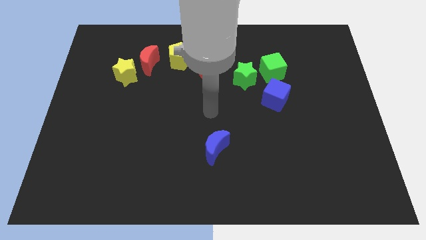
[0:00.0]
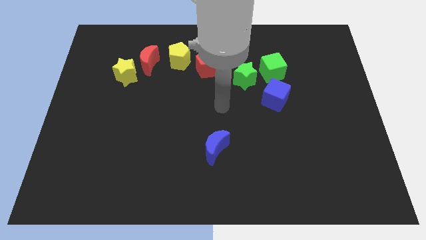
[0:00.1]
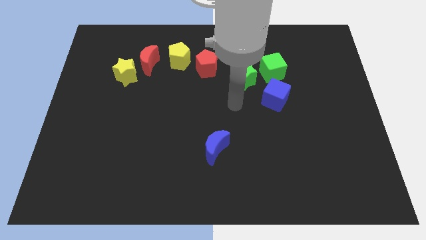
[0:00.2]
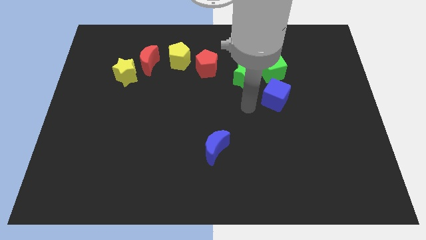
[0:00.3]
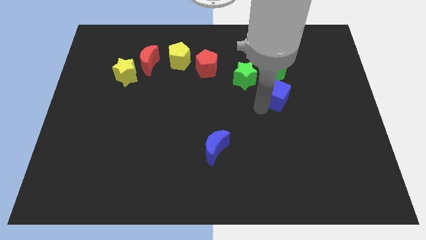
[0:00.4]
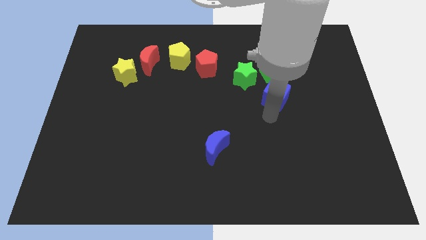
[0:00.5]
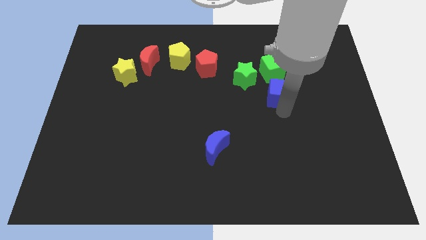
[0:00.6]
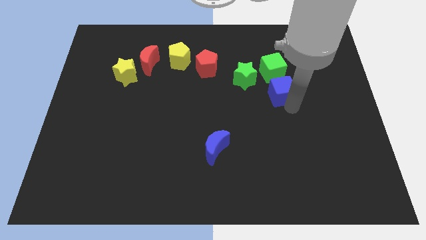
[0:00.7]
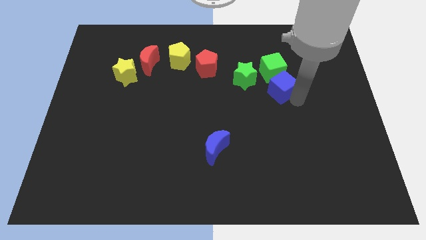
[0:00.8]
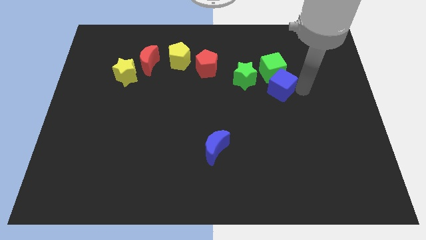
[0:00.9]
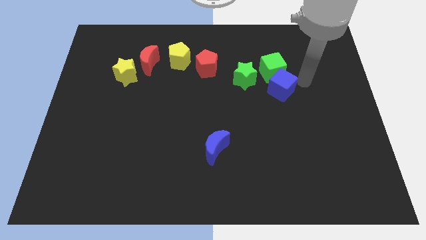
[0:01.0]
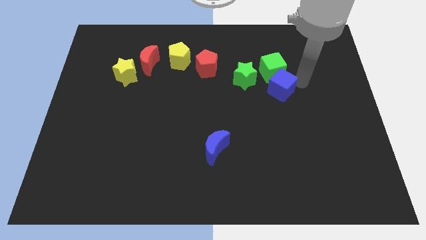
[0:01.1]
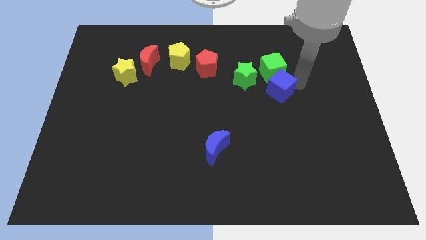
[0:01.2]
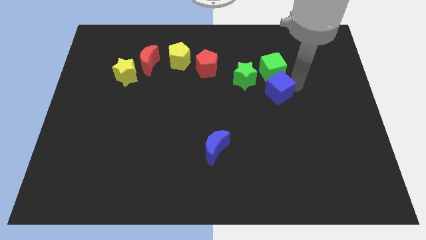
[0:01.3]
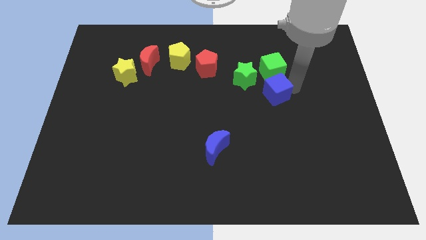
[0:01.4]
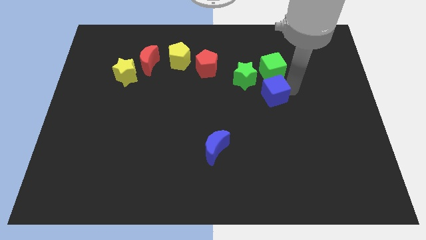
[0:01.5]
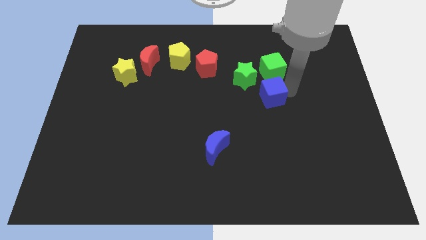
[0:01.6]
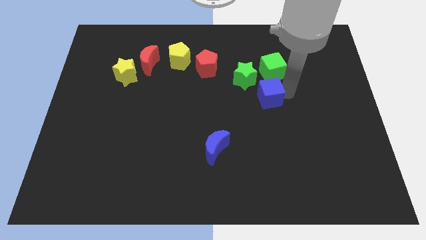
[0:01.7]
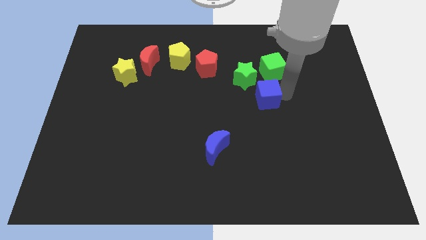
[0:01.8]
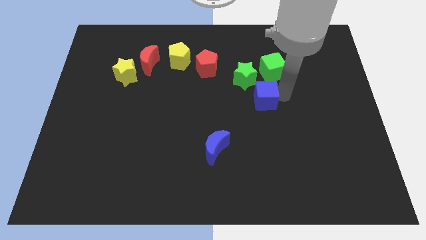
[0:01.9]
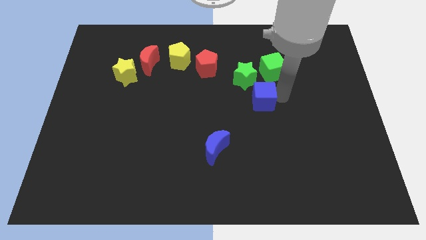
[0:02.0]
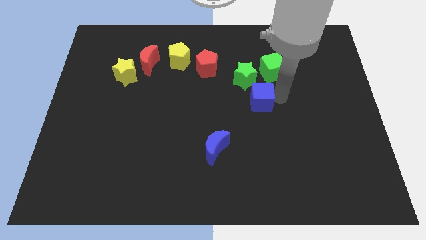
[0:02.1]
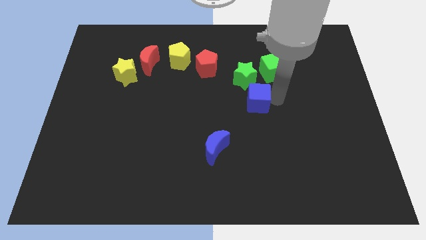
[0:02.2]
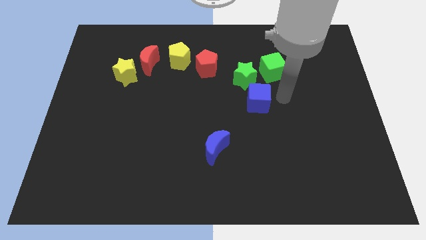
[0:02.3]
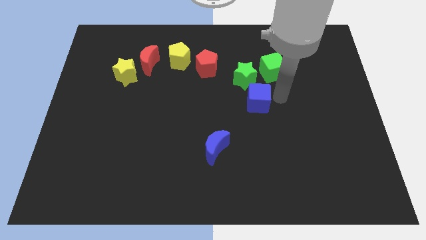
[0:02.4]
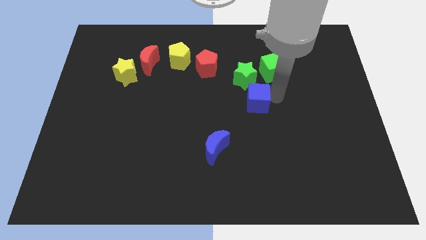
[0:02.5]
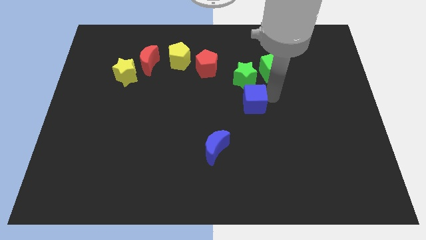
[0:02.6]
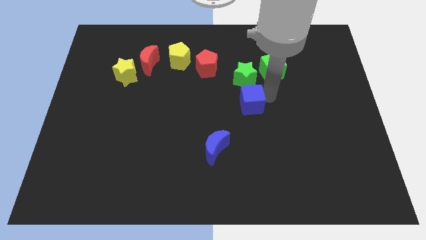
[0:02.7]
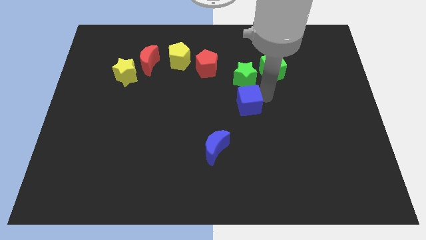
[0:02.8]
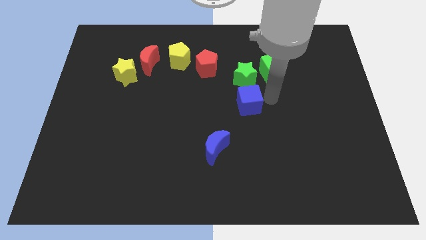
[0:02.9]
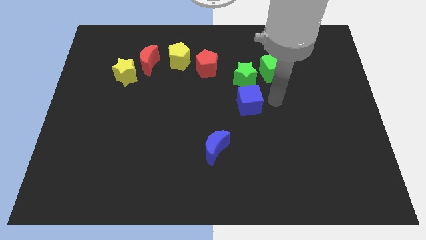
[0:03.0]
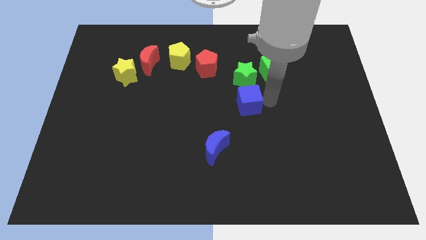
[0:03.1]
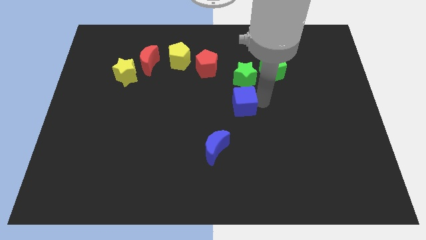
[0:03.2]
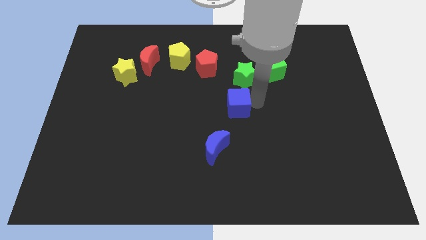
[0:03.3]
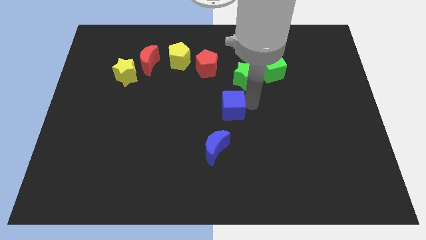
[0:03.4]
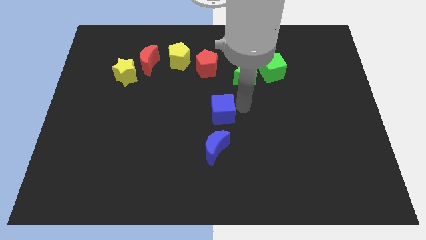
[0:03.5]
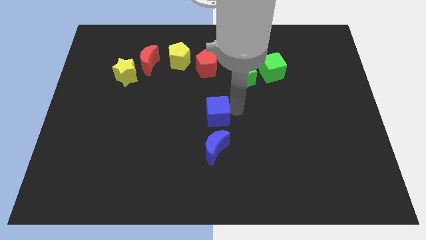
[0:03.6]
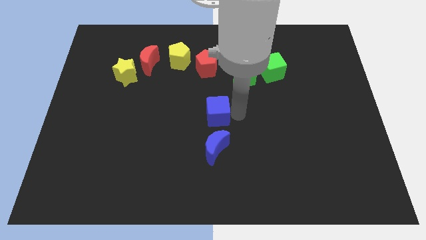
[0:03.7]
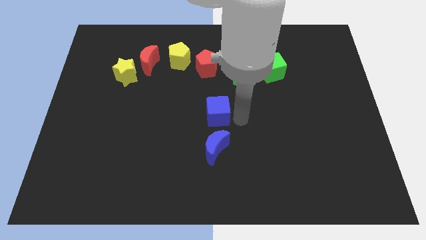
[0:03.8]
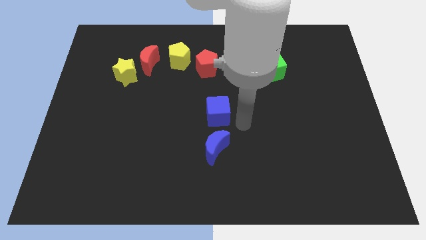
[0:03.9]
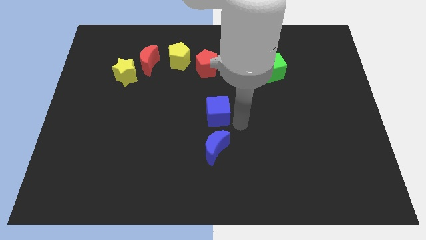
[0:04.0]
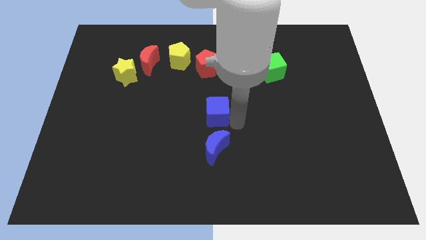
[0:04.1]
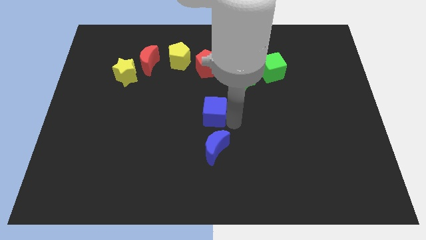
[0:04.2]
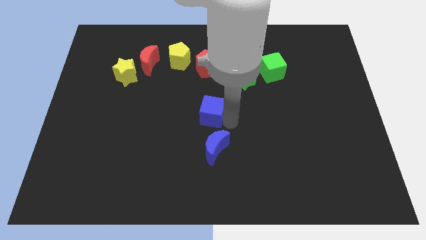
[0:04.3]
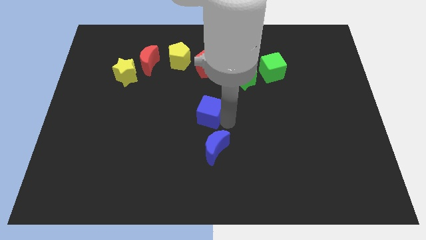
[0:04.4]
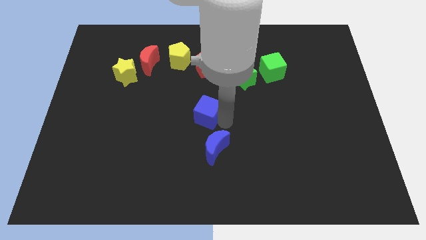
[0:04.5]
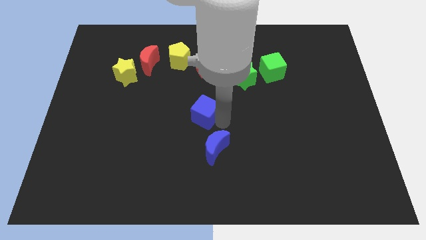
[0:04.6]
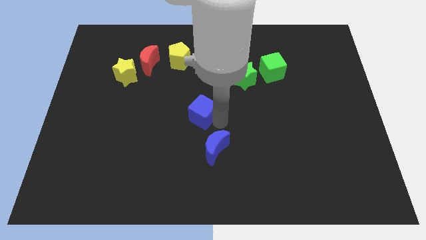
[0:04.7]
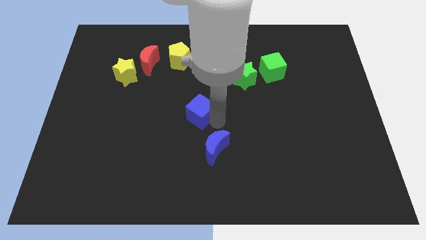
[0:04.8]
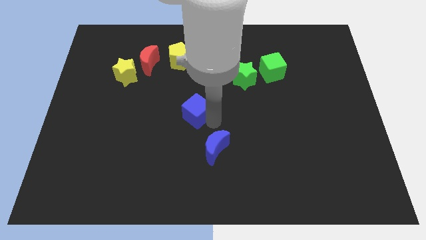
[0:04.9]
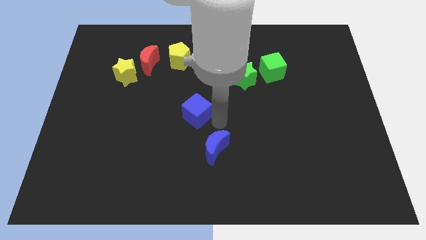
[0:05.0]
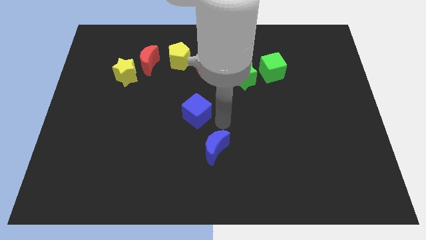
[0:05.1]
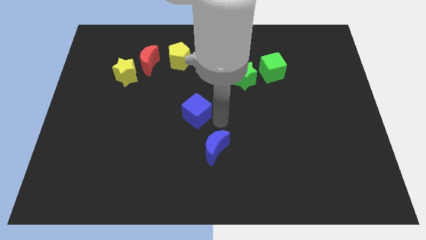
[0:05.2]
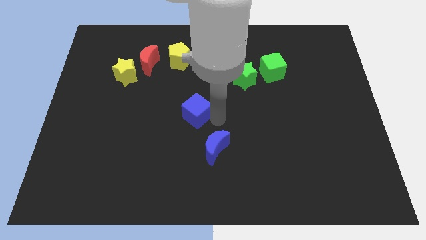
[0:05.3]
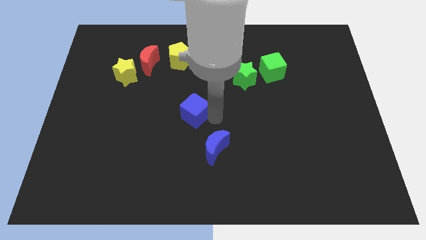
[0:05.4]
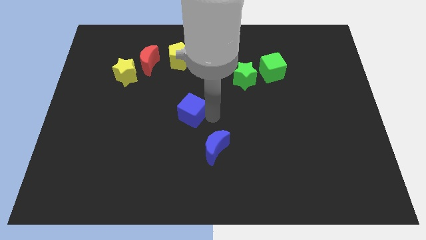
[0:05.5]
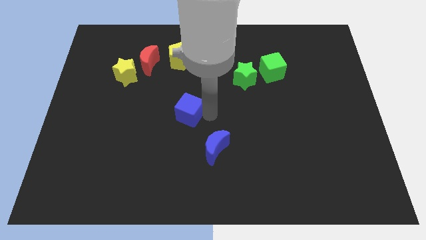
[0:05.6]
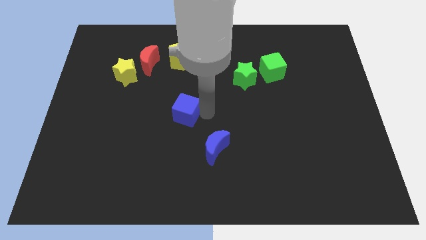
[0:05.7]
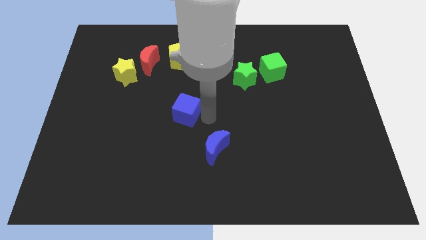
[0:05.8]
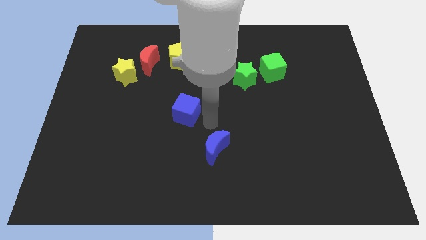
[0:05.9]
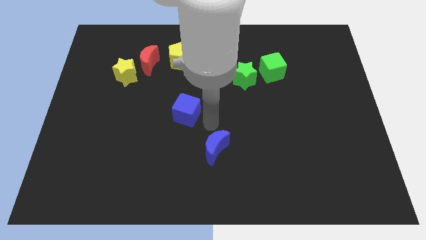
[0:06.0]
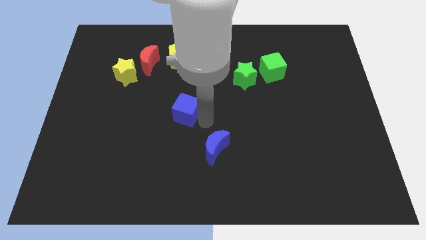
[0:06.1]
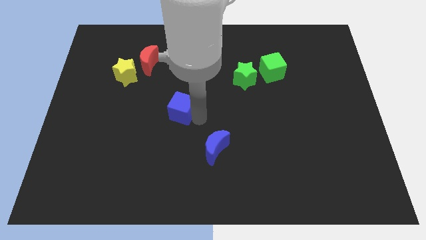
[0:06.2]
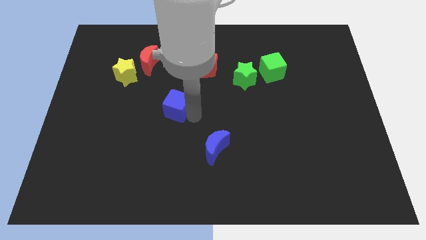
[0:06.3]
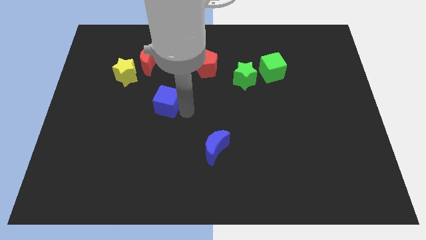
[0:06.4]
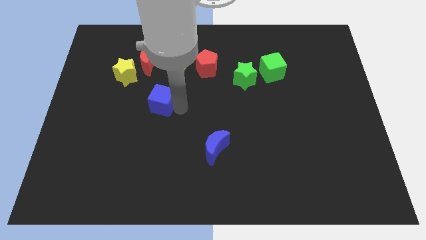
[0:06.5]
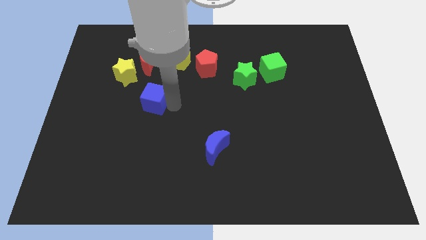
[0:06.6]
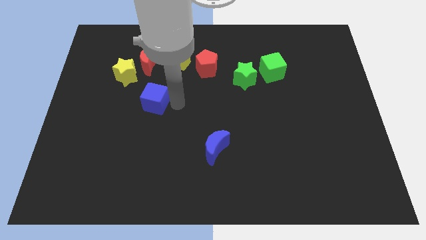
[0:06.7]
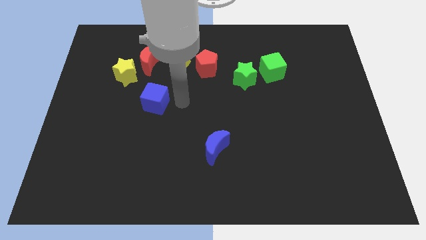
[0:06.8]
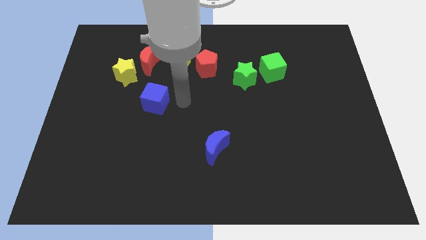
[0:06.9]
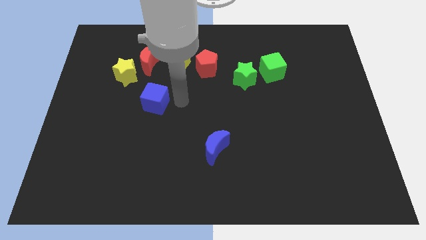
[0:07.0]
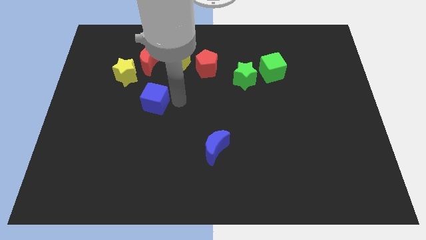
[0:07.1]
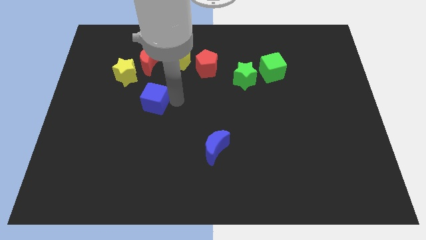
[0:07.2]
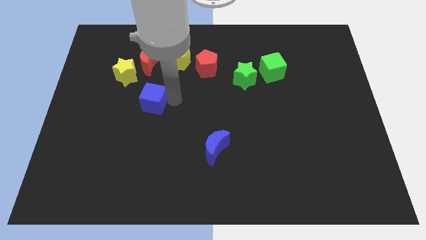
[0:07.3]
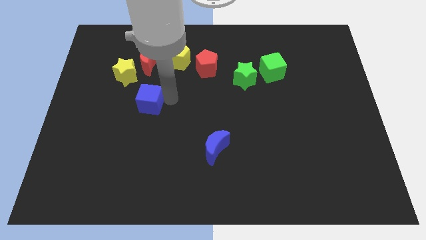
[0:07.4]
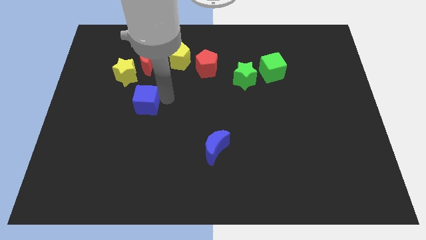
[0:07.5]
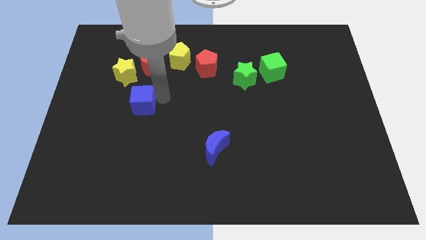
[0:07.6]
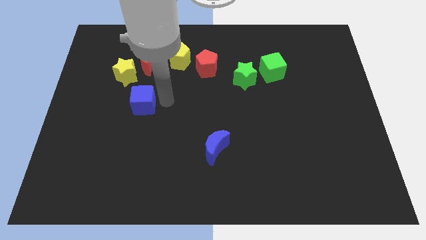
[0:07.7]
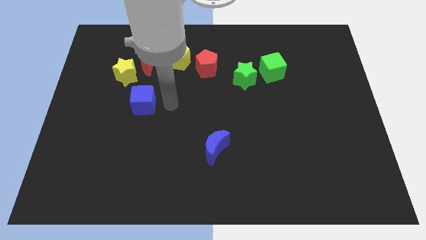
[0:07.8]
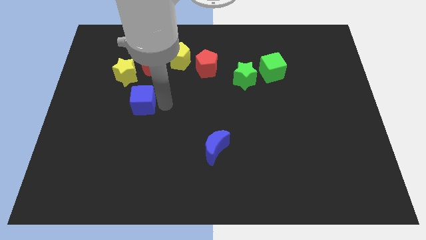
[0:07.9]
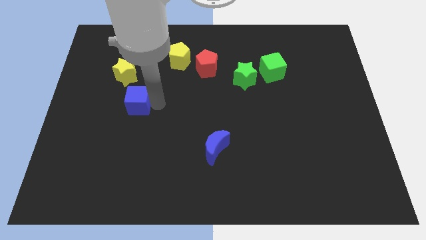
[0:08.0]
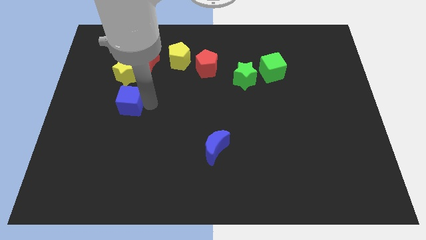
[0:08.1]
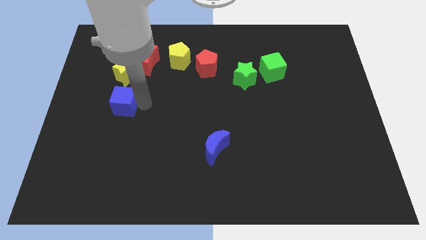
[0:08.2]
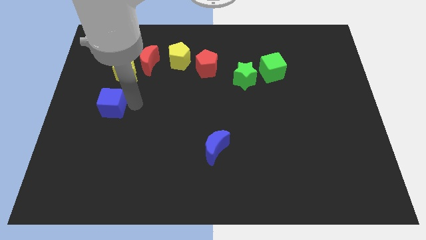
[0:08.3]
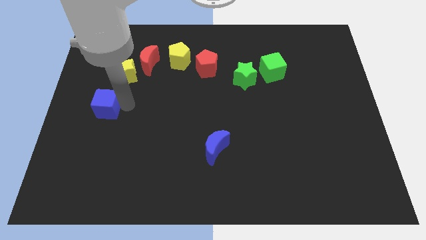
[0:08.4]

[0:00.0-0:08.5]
slide the blue cube to the left side
